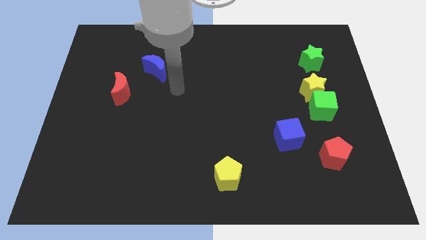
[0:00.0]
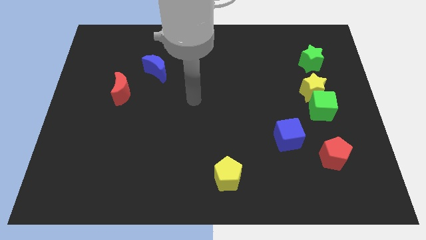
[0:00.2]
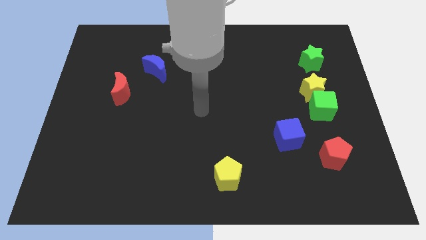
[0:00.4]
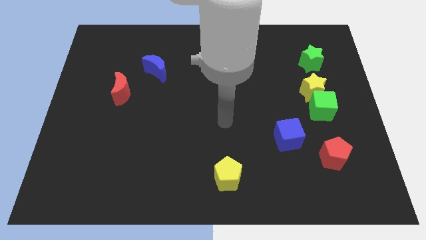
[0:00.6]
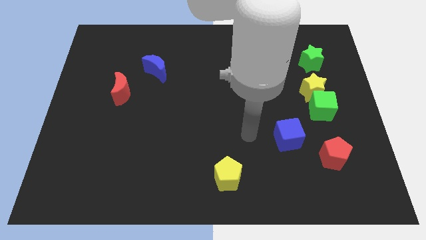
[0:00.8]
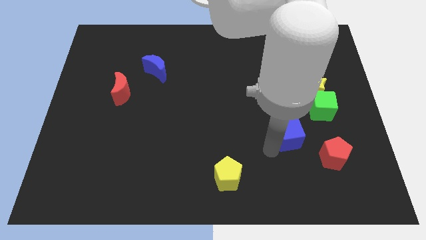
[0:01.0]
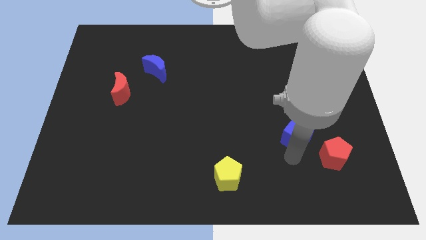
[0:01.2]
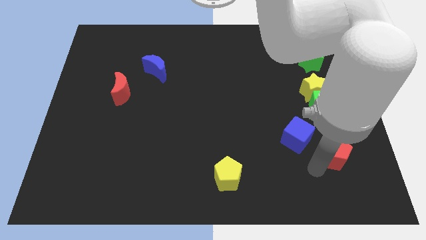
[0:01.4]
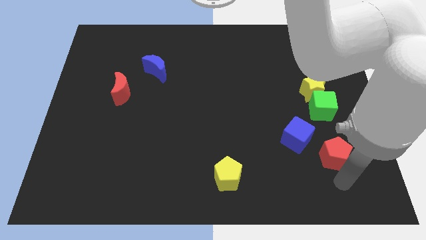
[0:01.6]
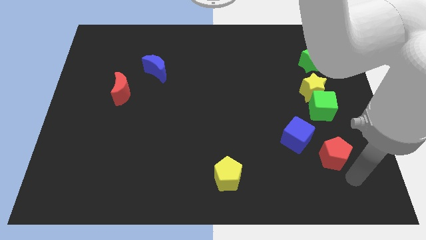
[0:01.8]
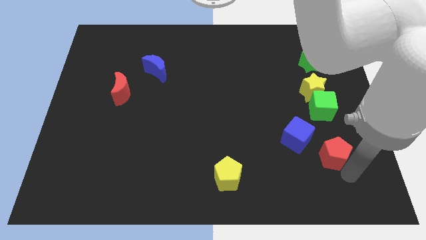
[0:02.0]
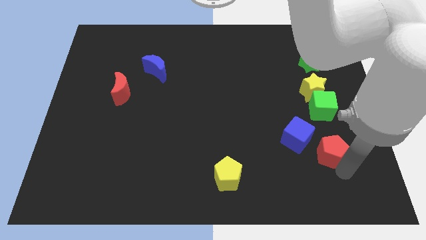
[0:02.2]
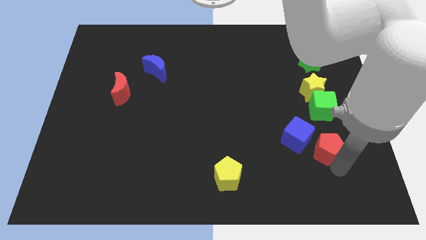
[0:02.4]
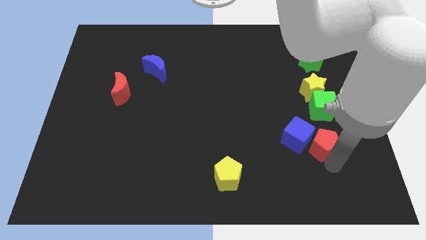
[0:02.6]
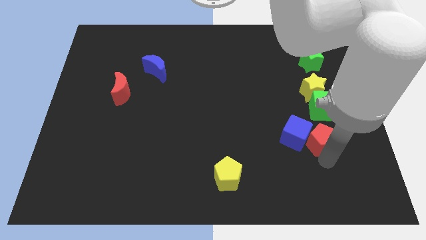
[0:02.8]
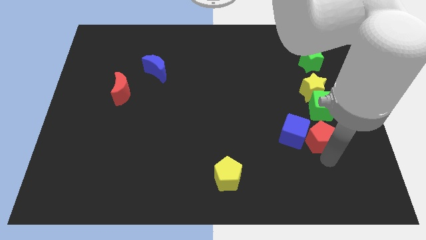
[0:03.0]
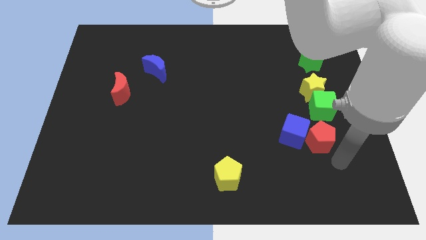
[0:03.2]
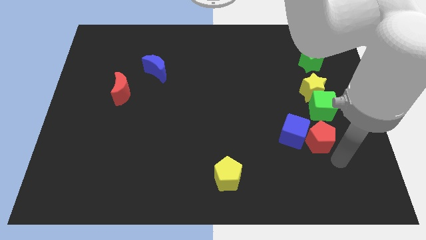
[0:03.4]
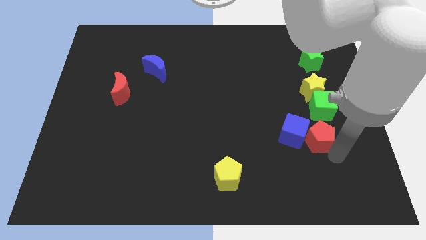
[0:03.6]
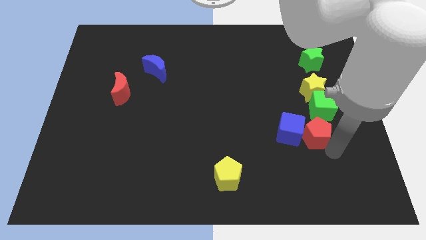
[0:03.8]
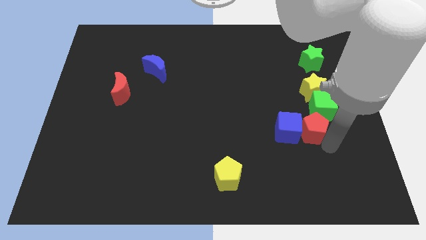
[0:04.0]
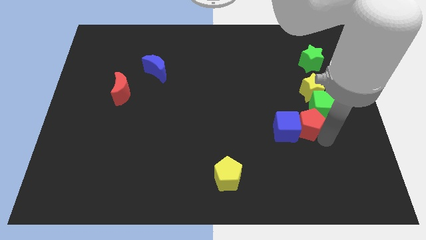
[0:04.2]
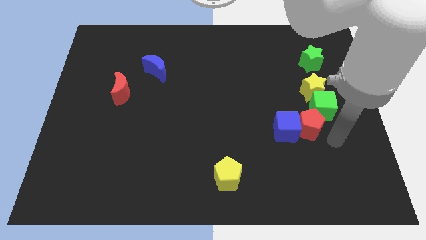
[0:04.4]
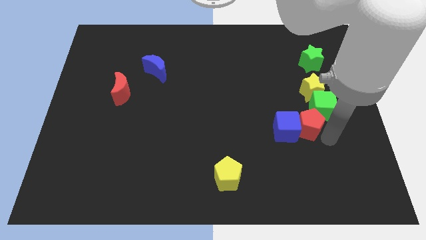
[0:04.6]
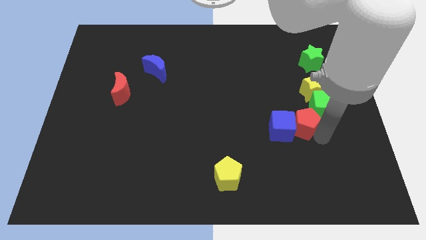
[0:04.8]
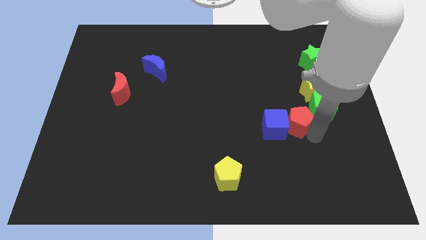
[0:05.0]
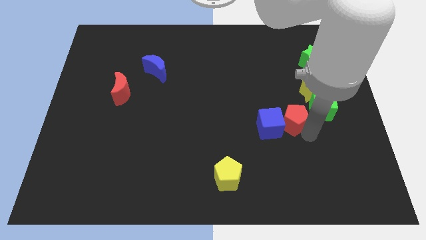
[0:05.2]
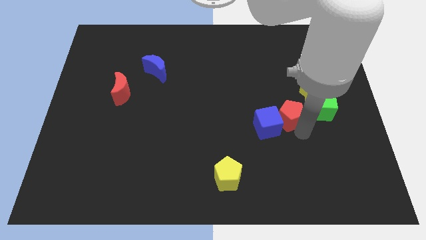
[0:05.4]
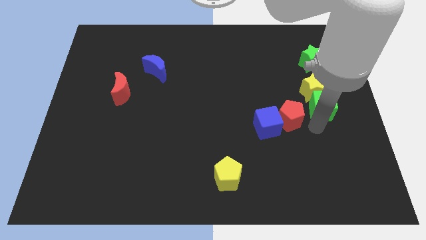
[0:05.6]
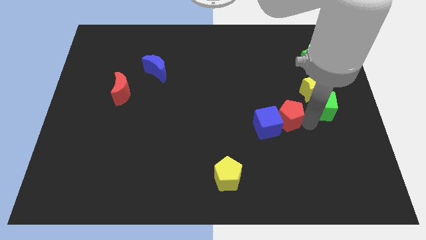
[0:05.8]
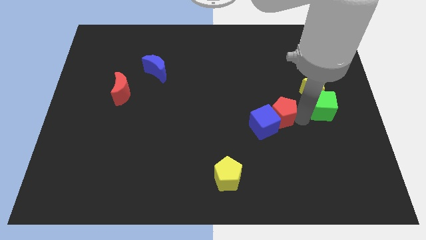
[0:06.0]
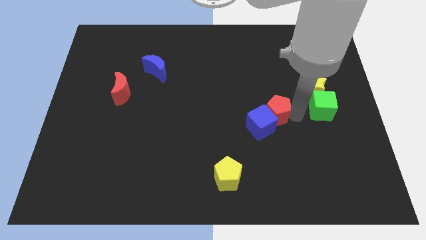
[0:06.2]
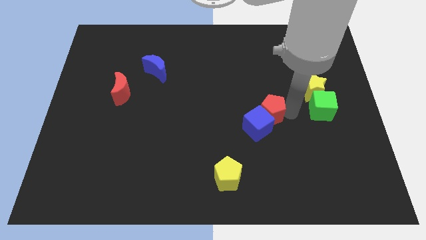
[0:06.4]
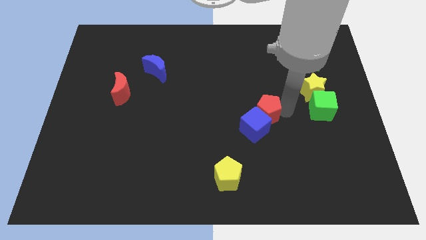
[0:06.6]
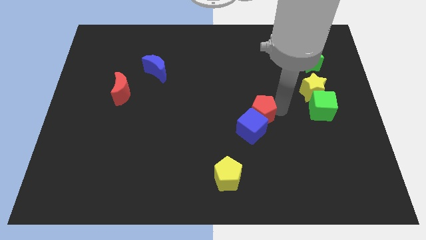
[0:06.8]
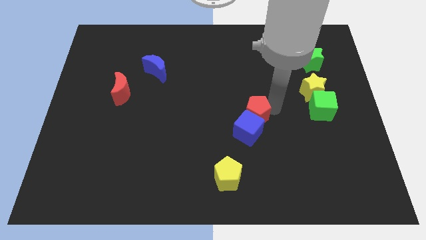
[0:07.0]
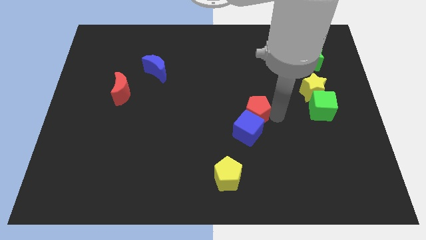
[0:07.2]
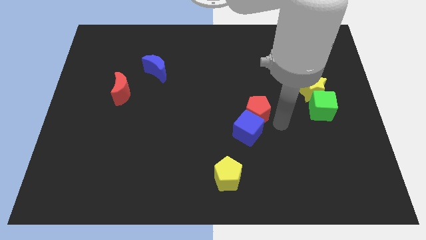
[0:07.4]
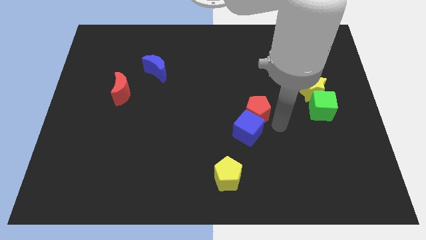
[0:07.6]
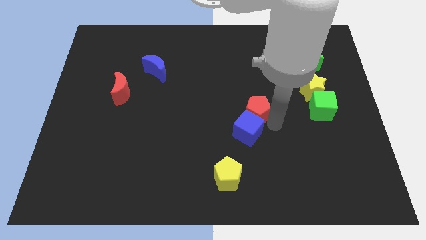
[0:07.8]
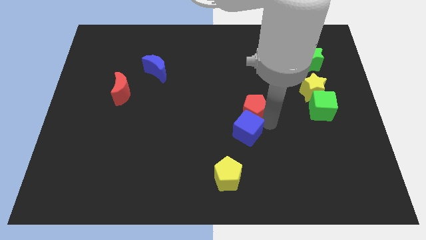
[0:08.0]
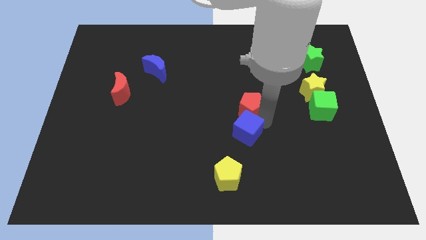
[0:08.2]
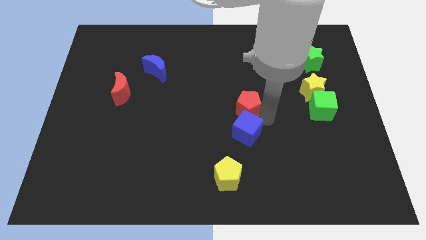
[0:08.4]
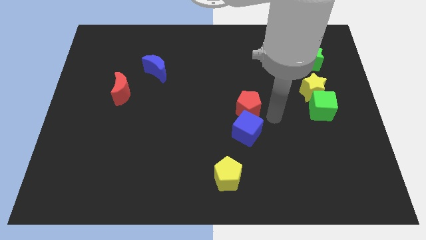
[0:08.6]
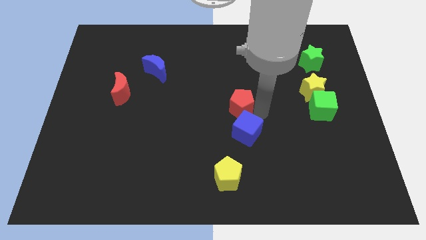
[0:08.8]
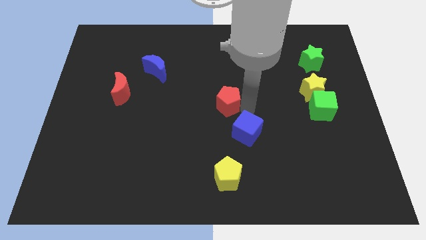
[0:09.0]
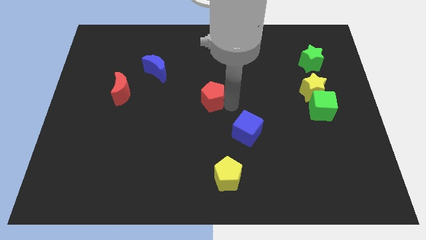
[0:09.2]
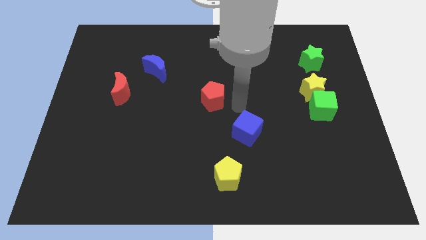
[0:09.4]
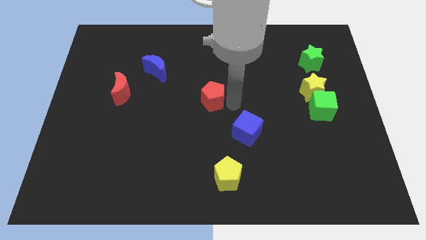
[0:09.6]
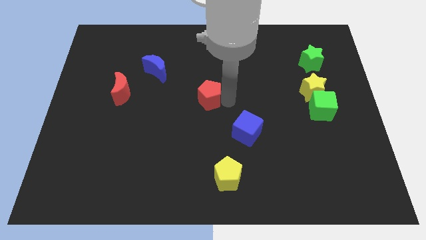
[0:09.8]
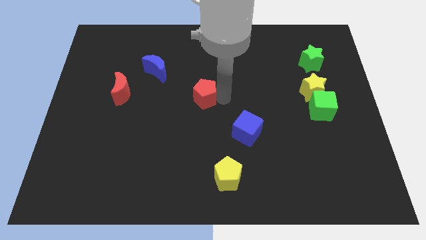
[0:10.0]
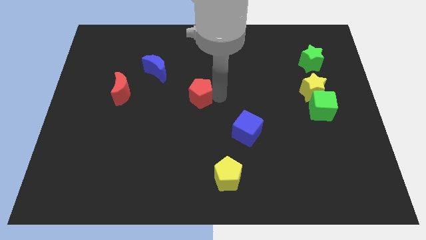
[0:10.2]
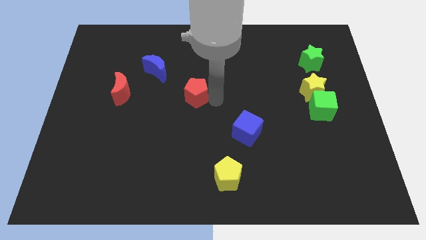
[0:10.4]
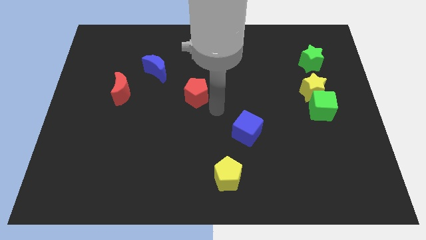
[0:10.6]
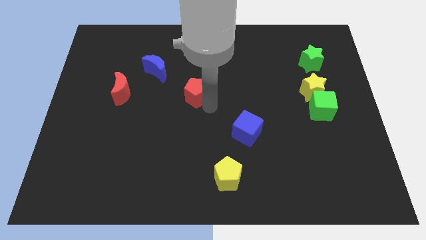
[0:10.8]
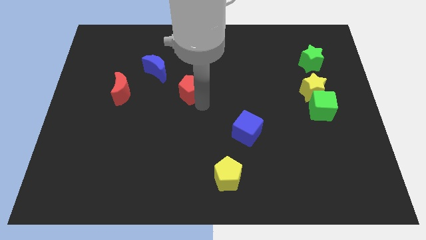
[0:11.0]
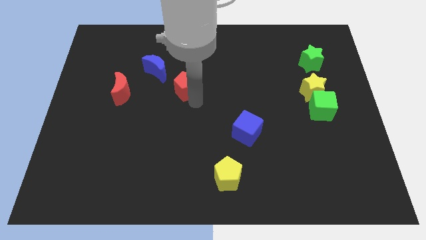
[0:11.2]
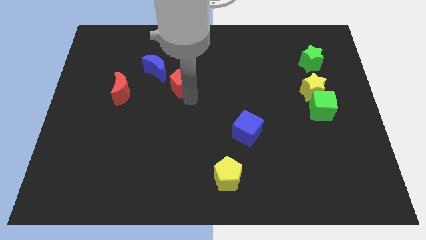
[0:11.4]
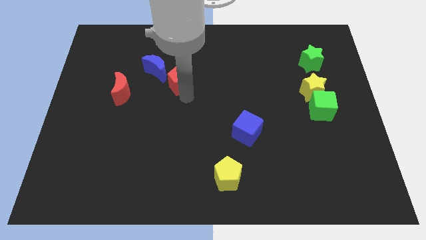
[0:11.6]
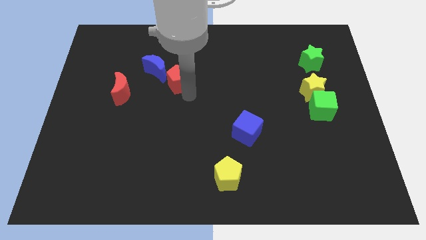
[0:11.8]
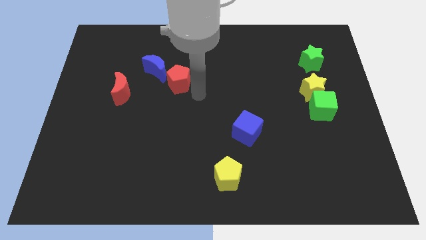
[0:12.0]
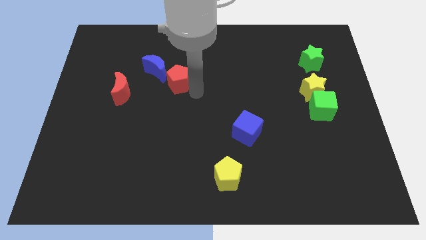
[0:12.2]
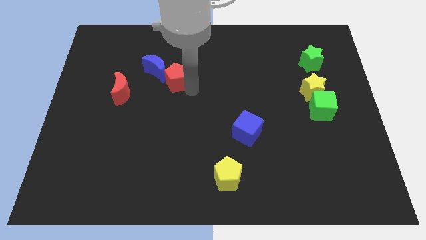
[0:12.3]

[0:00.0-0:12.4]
put the red pentagon towards the blue moon

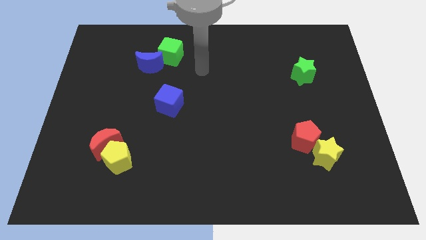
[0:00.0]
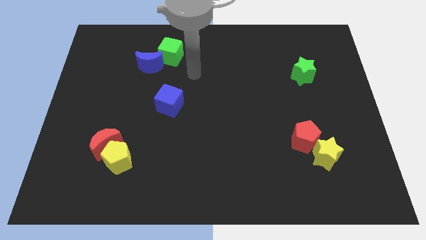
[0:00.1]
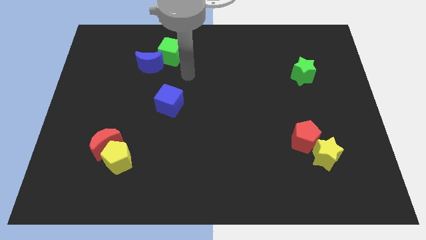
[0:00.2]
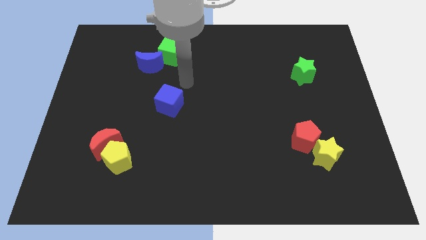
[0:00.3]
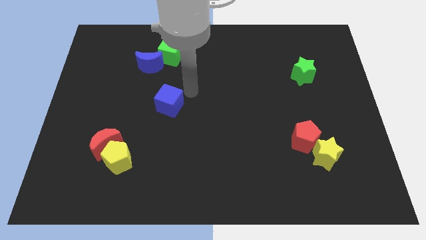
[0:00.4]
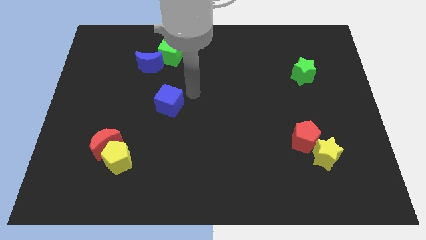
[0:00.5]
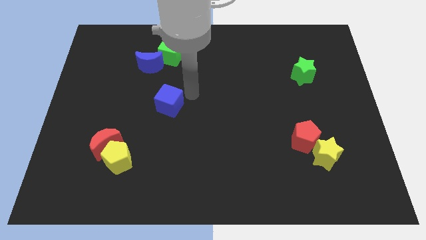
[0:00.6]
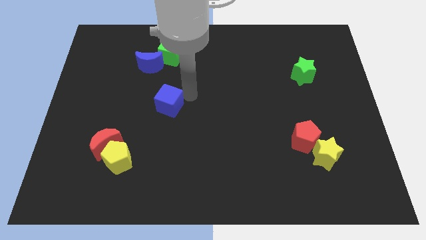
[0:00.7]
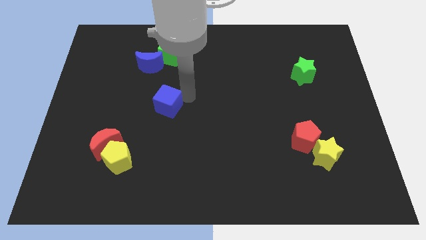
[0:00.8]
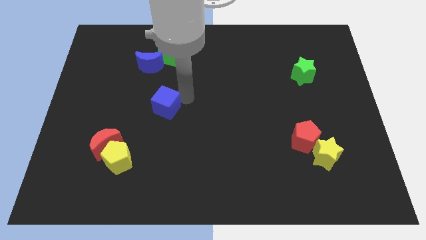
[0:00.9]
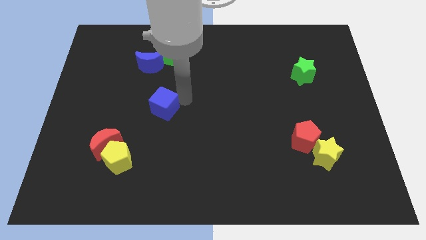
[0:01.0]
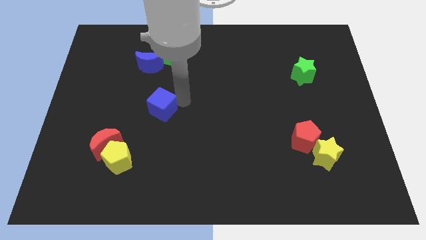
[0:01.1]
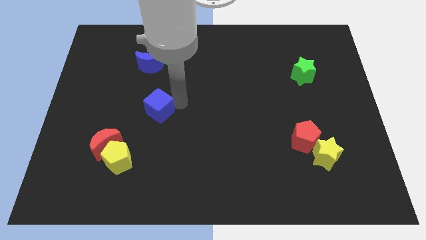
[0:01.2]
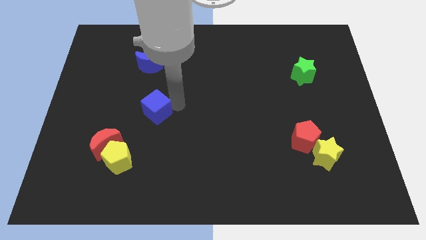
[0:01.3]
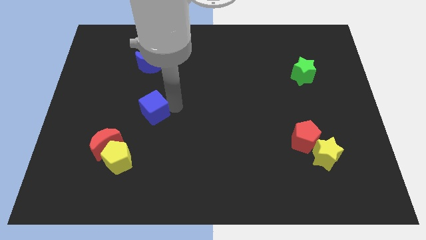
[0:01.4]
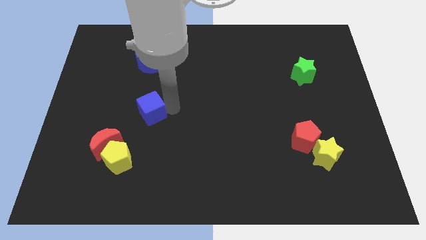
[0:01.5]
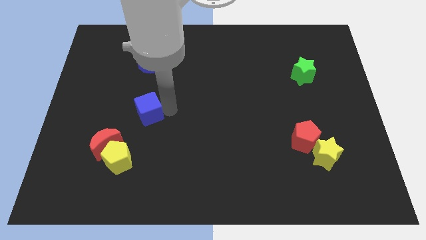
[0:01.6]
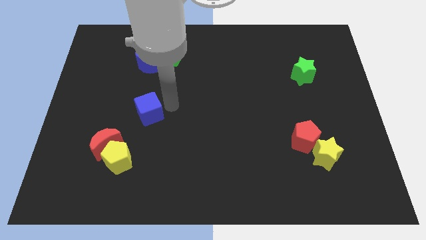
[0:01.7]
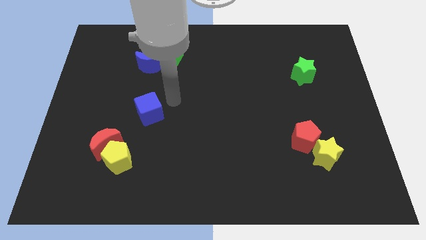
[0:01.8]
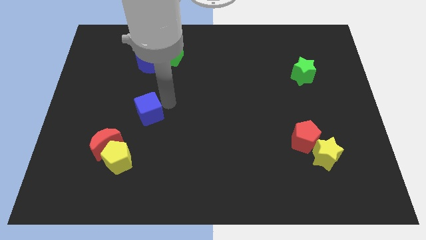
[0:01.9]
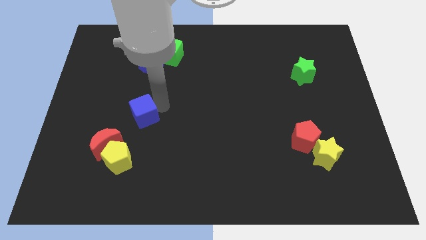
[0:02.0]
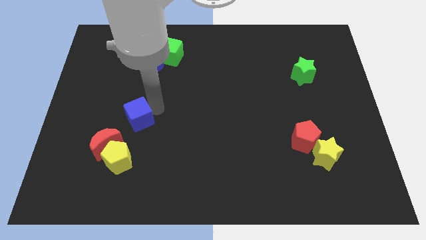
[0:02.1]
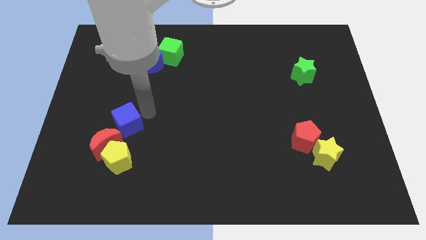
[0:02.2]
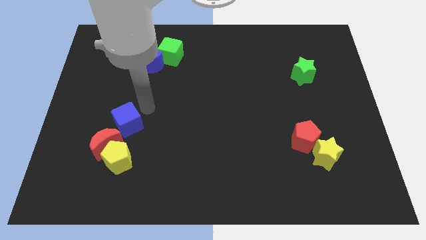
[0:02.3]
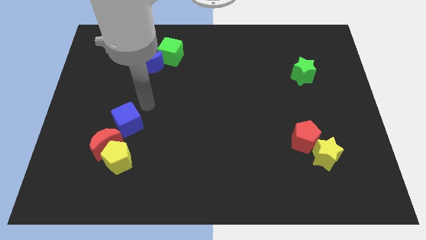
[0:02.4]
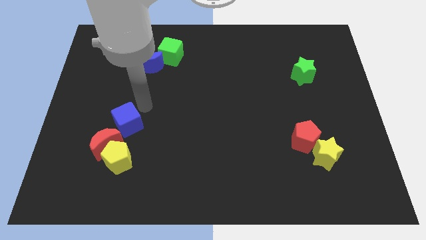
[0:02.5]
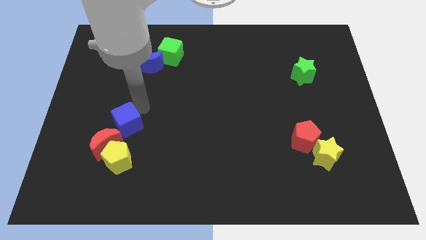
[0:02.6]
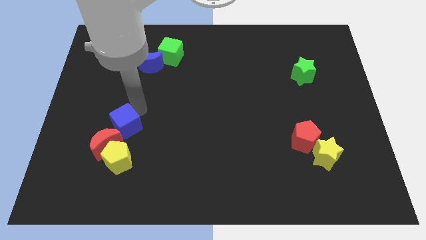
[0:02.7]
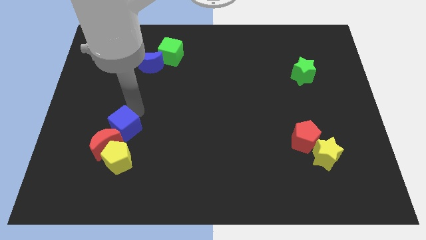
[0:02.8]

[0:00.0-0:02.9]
put the blue cube next to the red moon
